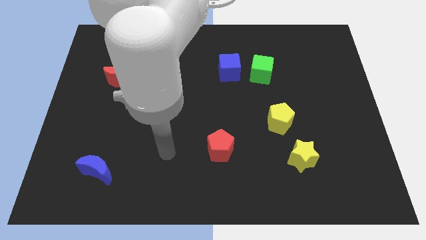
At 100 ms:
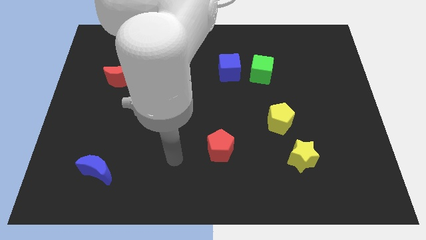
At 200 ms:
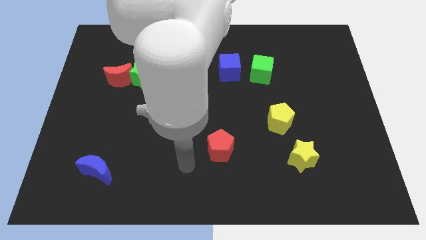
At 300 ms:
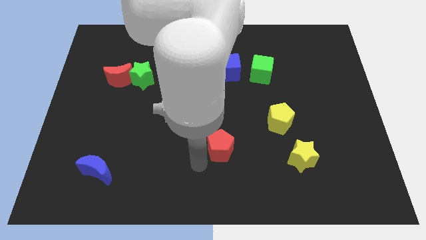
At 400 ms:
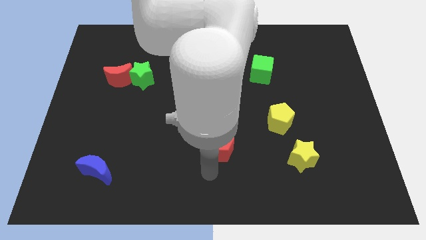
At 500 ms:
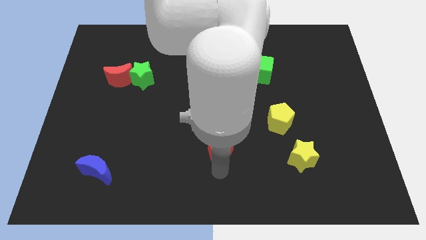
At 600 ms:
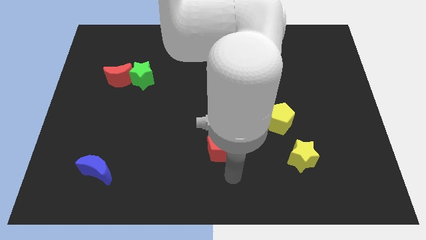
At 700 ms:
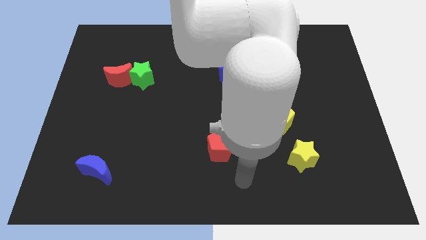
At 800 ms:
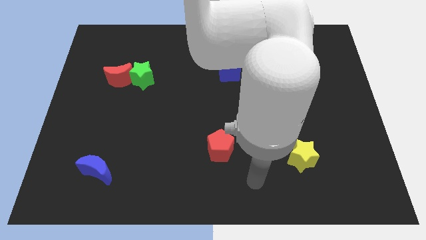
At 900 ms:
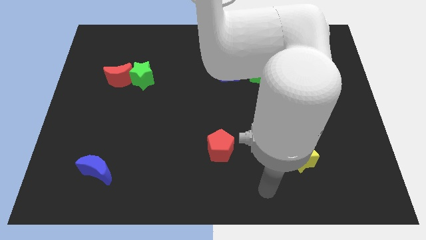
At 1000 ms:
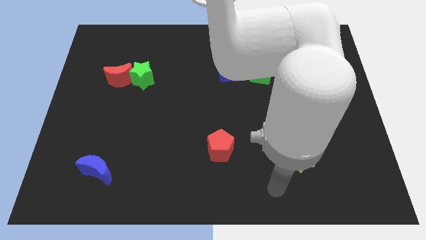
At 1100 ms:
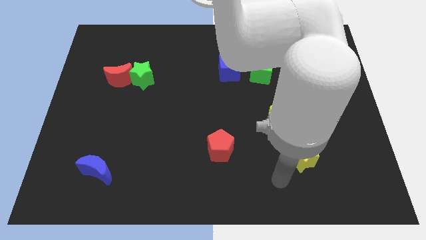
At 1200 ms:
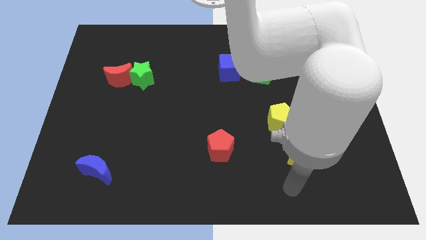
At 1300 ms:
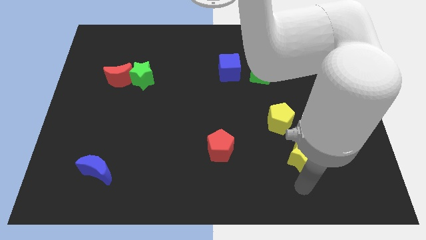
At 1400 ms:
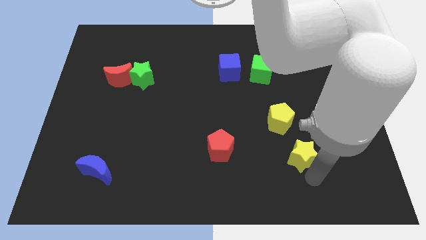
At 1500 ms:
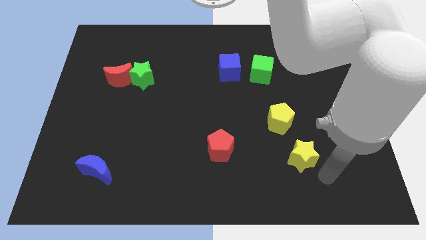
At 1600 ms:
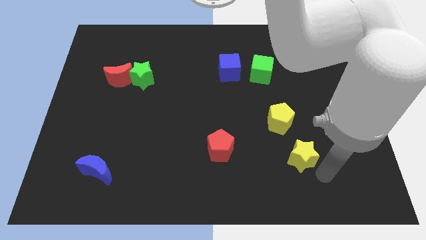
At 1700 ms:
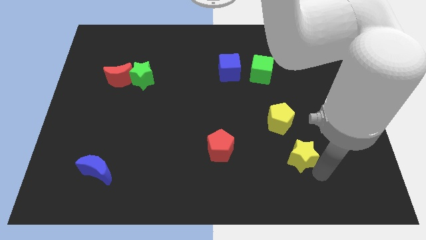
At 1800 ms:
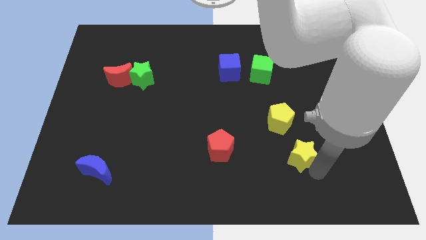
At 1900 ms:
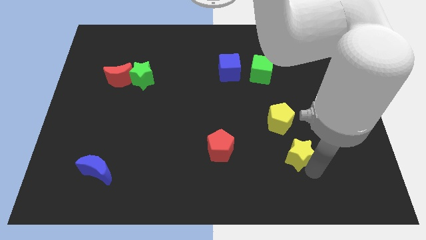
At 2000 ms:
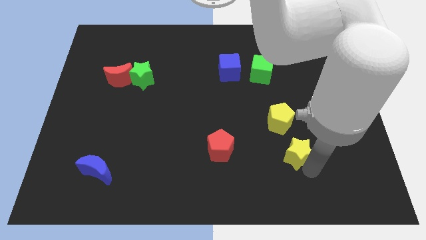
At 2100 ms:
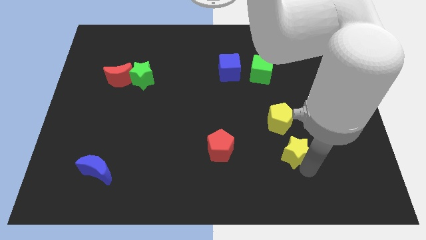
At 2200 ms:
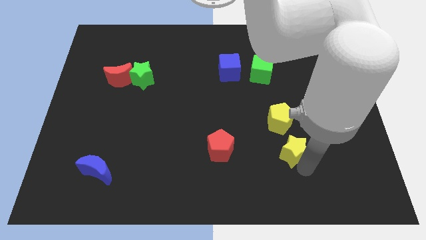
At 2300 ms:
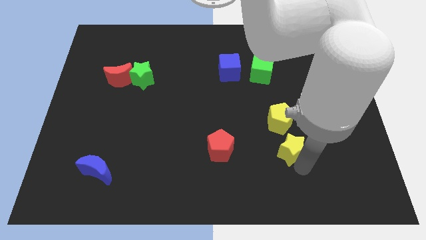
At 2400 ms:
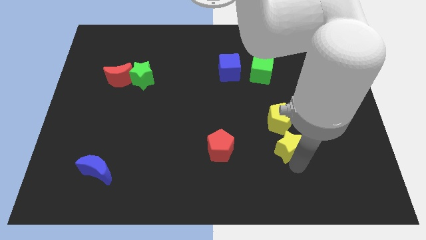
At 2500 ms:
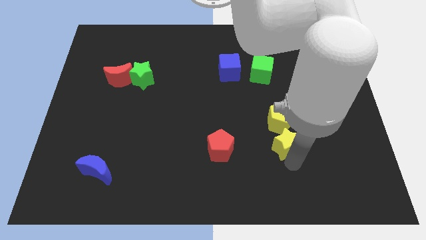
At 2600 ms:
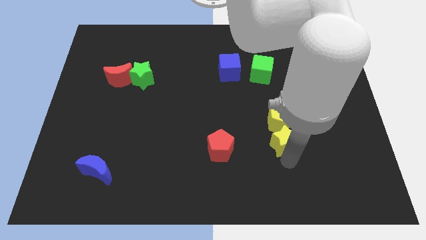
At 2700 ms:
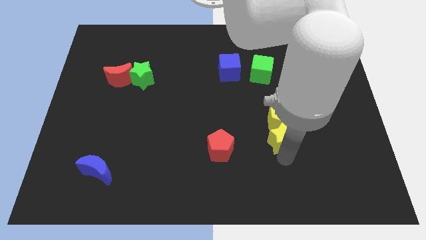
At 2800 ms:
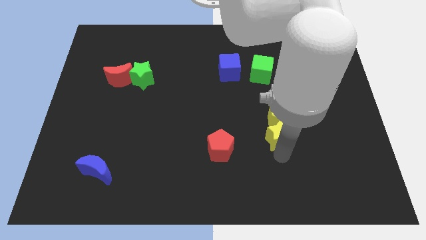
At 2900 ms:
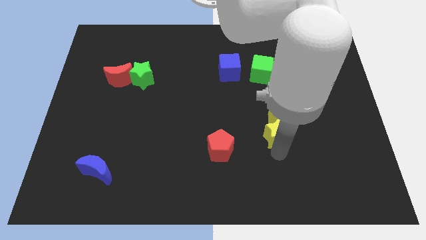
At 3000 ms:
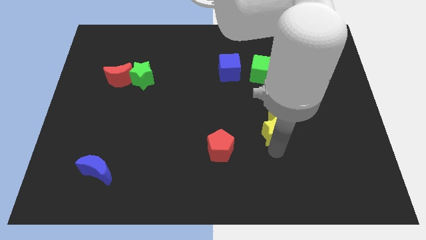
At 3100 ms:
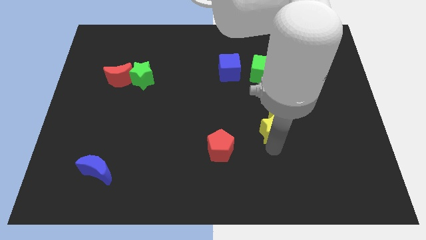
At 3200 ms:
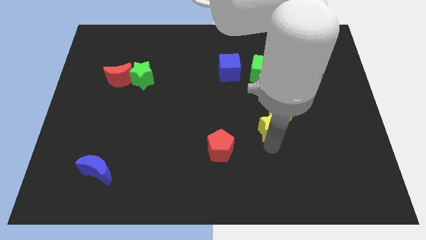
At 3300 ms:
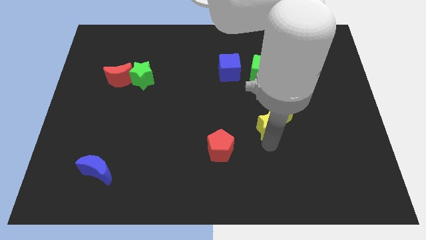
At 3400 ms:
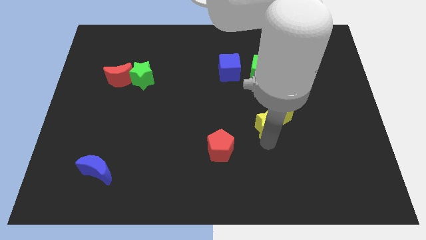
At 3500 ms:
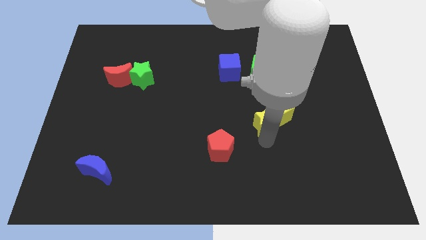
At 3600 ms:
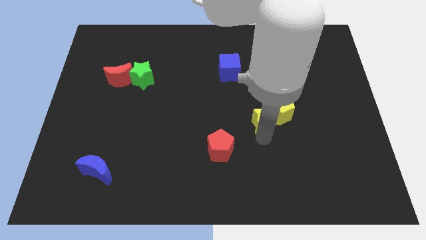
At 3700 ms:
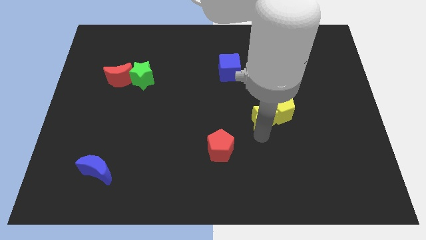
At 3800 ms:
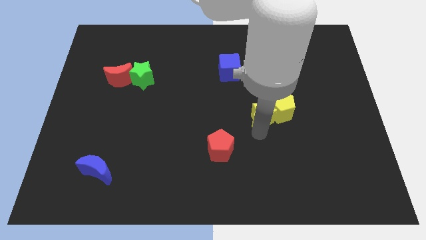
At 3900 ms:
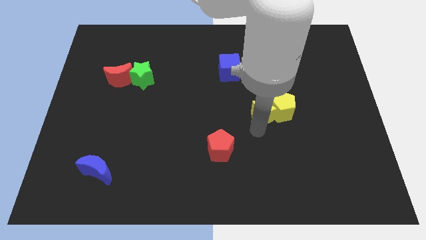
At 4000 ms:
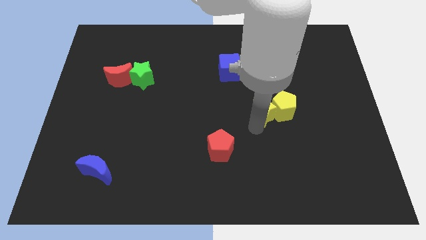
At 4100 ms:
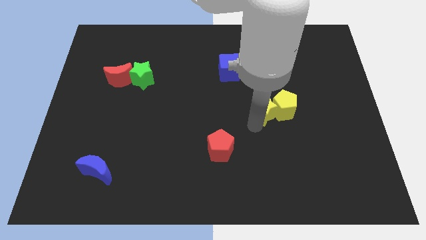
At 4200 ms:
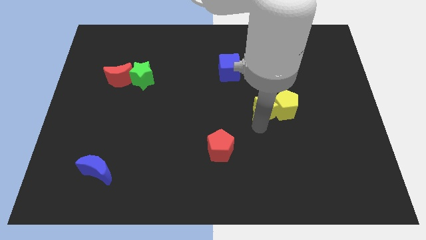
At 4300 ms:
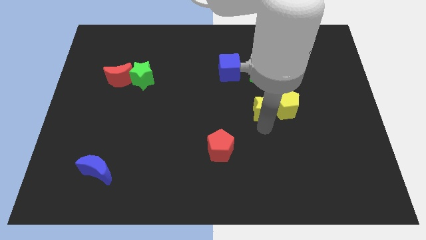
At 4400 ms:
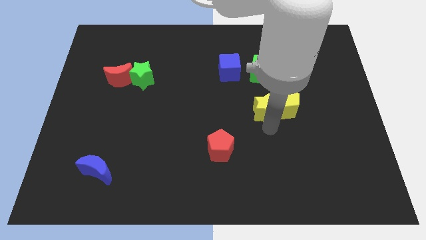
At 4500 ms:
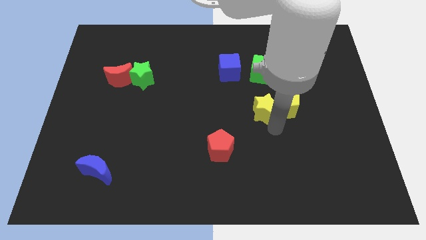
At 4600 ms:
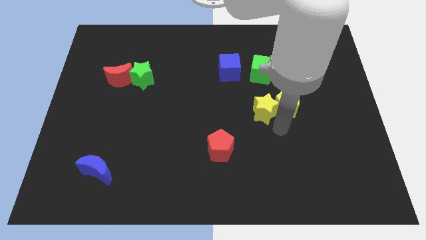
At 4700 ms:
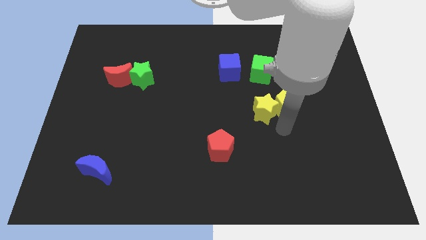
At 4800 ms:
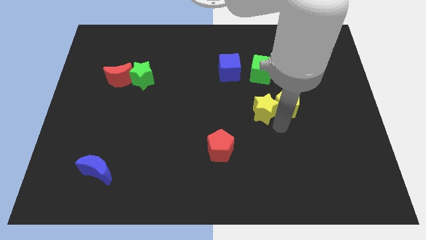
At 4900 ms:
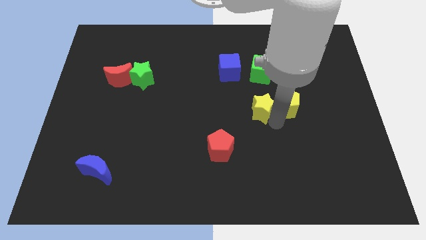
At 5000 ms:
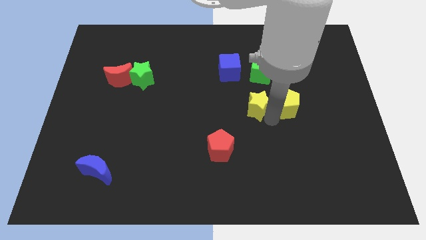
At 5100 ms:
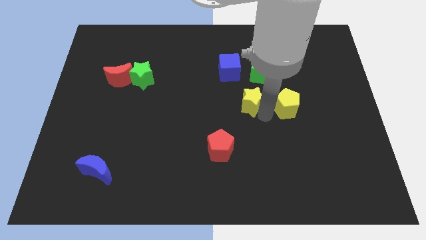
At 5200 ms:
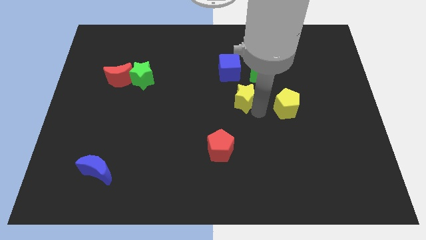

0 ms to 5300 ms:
slide the yellow star diagonally down and to the left of the green cube

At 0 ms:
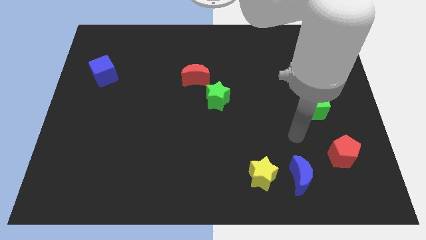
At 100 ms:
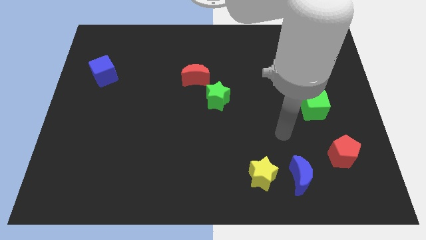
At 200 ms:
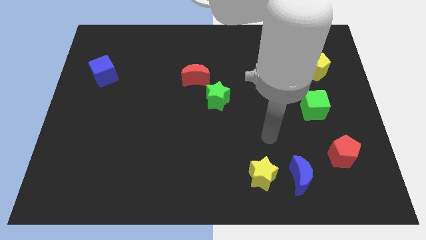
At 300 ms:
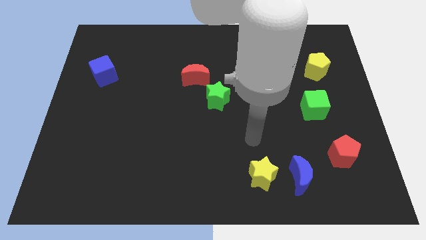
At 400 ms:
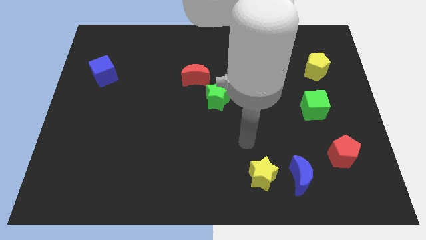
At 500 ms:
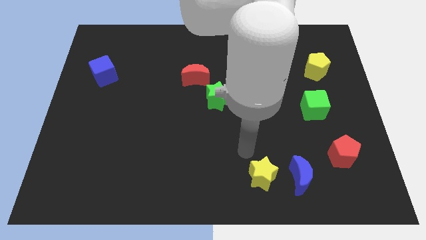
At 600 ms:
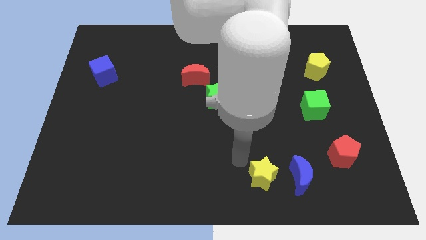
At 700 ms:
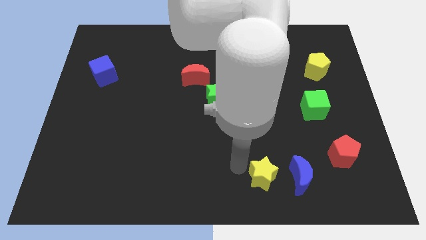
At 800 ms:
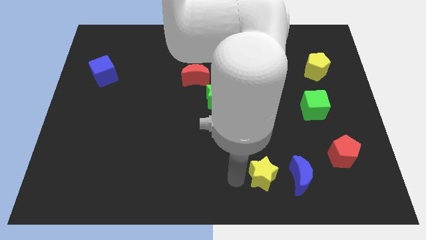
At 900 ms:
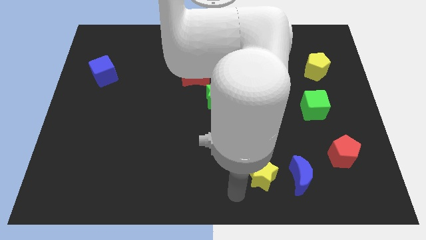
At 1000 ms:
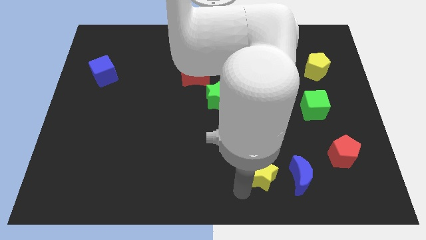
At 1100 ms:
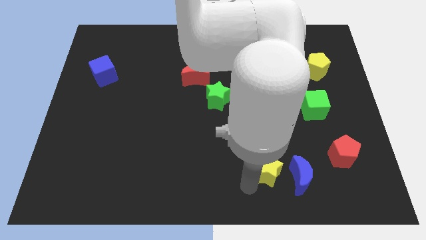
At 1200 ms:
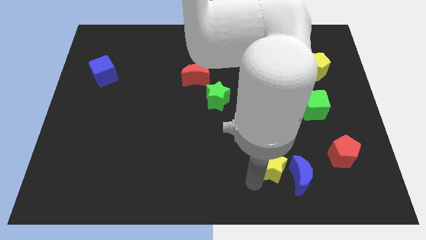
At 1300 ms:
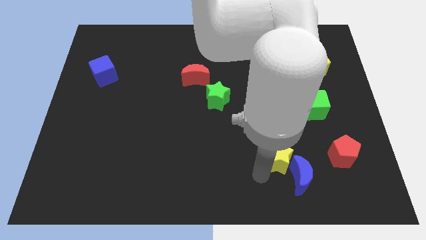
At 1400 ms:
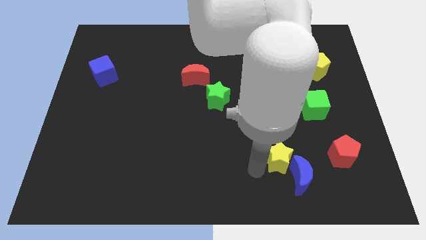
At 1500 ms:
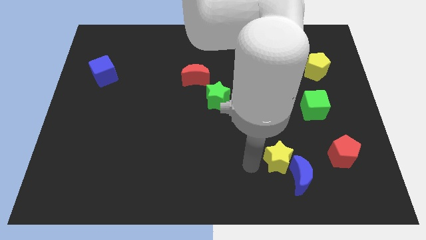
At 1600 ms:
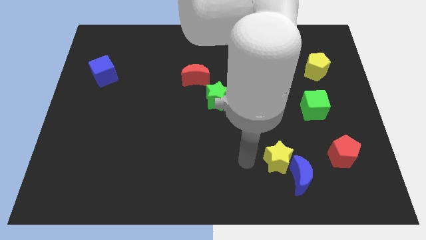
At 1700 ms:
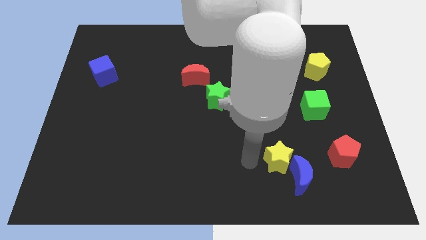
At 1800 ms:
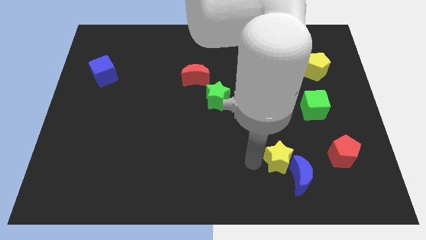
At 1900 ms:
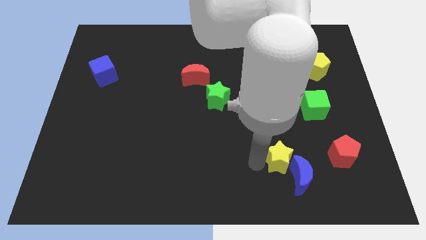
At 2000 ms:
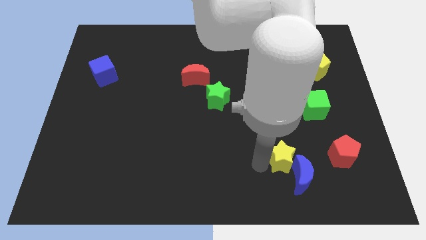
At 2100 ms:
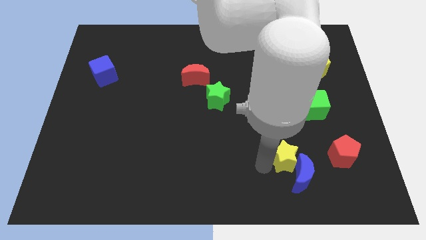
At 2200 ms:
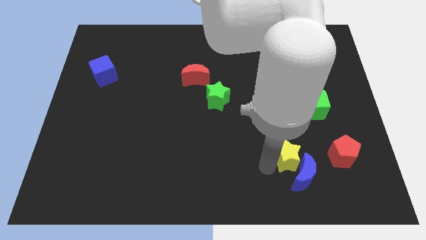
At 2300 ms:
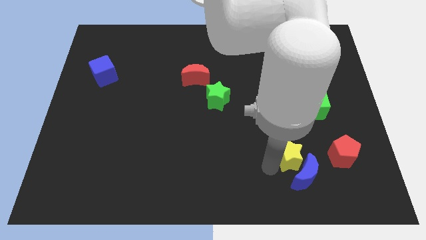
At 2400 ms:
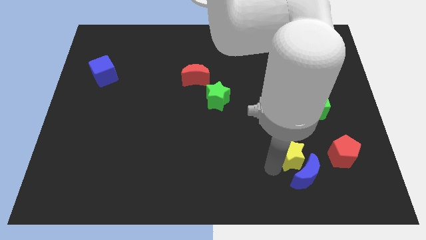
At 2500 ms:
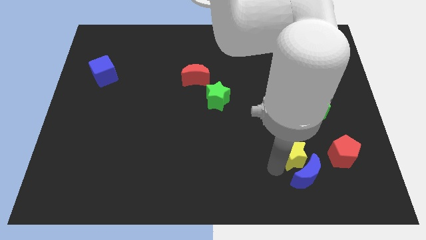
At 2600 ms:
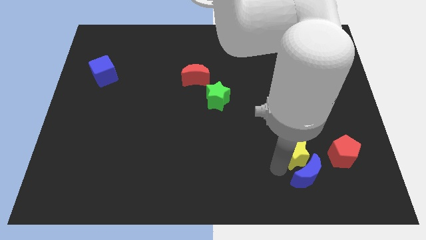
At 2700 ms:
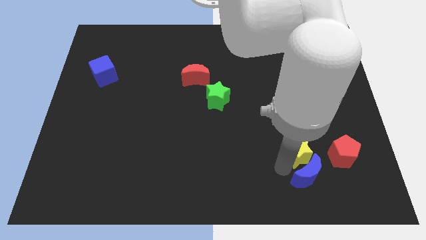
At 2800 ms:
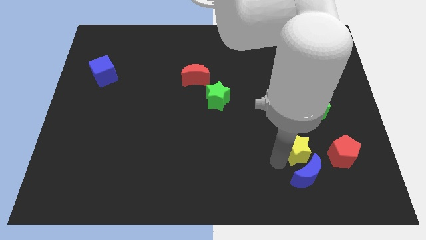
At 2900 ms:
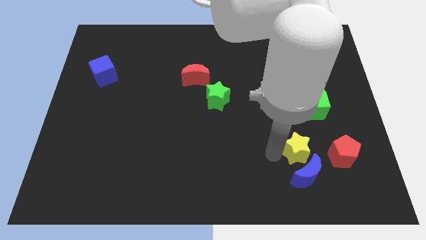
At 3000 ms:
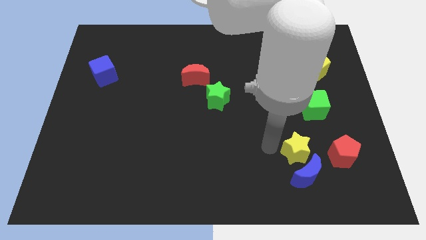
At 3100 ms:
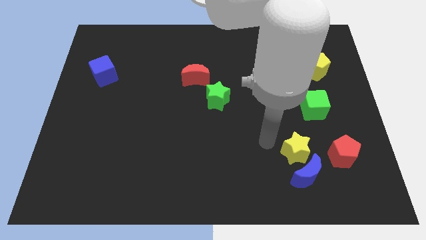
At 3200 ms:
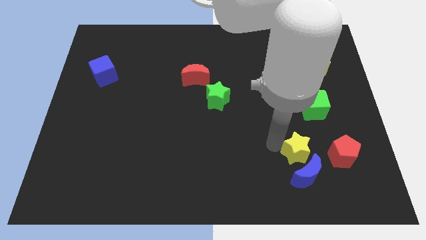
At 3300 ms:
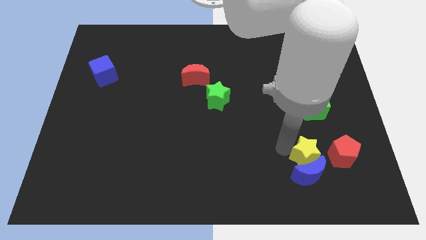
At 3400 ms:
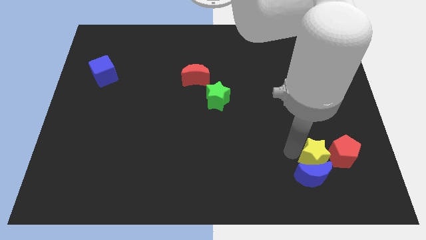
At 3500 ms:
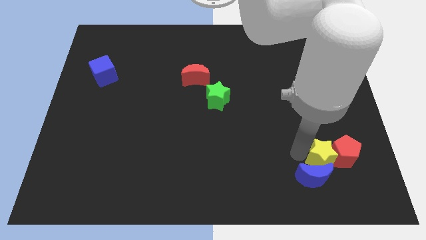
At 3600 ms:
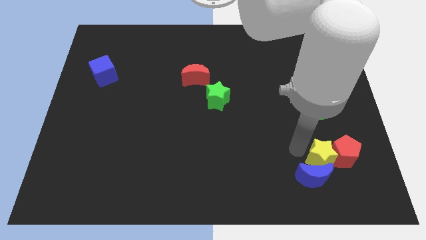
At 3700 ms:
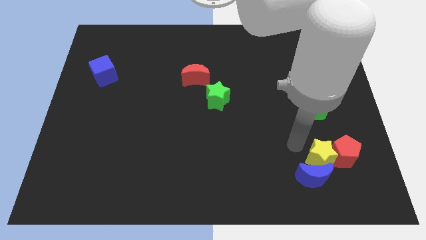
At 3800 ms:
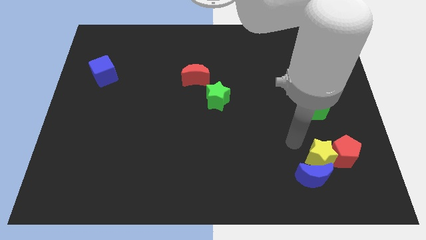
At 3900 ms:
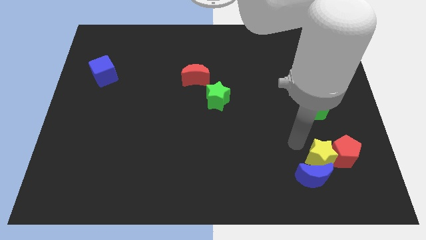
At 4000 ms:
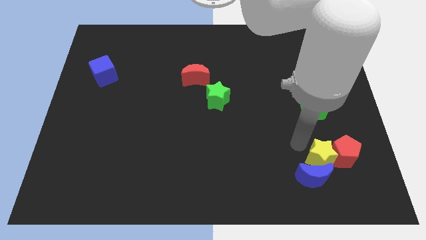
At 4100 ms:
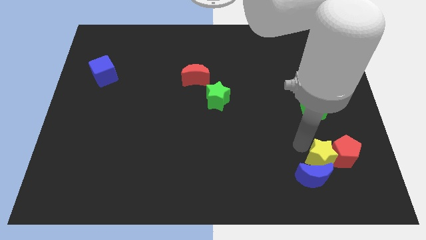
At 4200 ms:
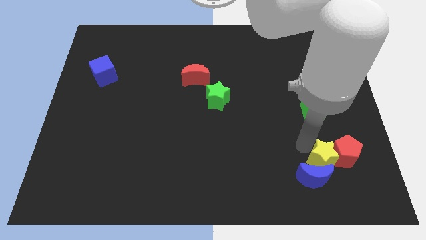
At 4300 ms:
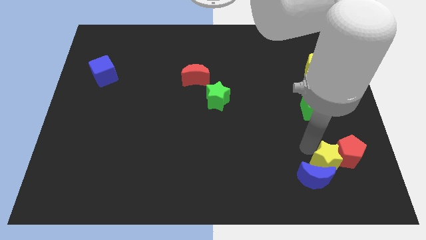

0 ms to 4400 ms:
put the yellow star just right of the blue moon
